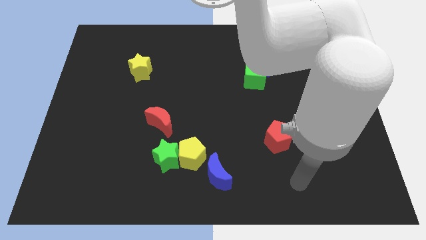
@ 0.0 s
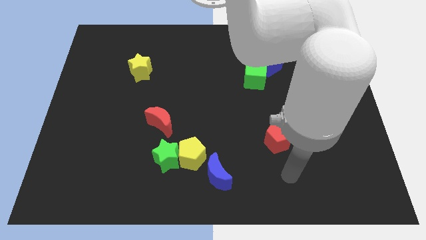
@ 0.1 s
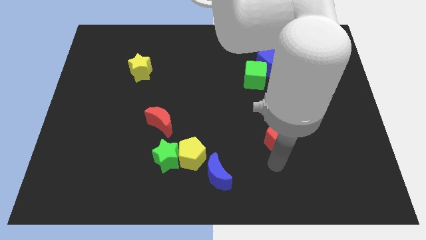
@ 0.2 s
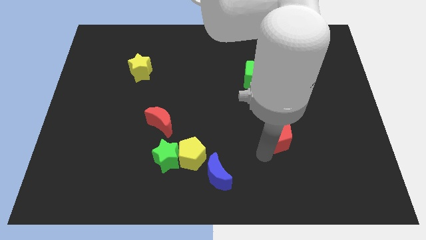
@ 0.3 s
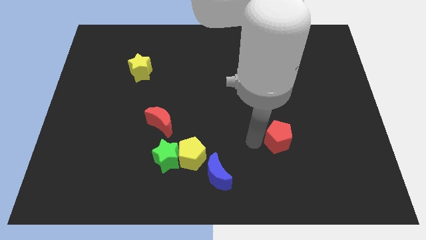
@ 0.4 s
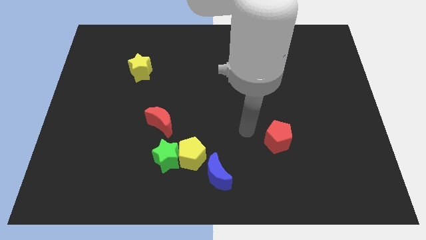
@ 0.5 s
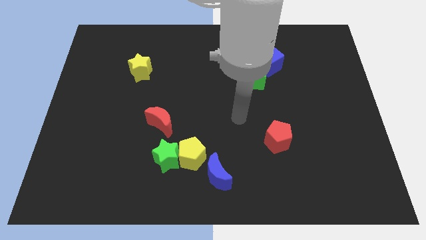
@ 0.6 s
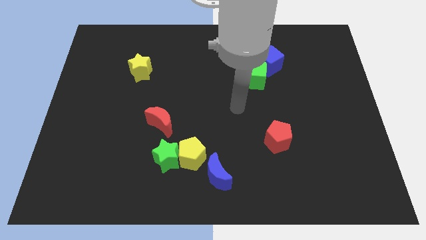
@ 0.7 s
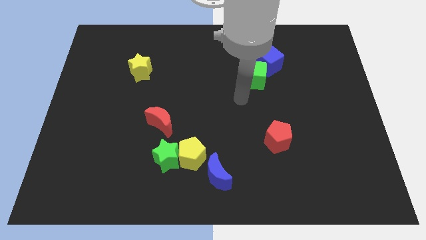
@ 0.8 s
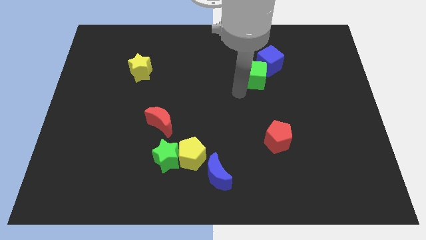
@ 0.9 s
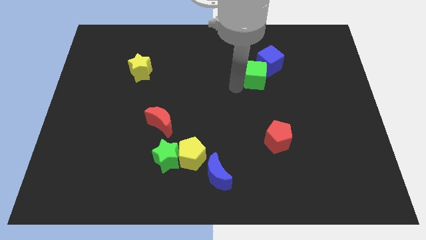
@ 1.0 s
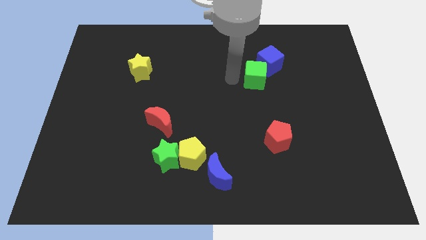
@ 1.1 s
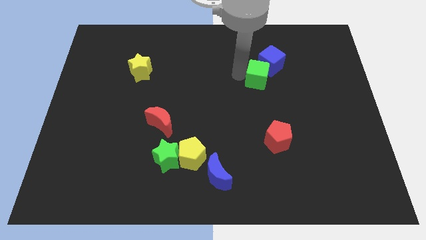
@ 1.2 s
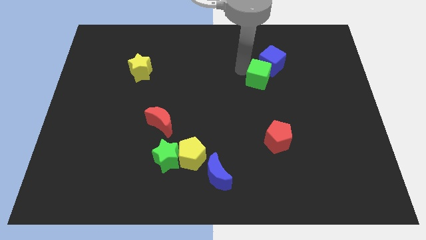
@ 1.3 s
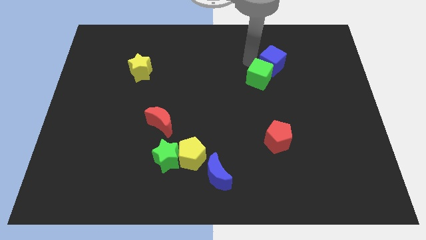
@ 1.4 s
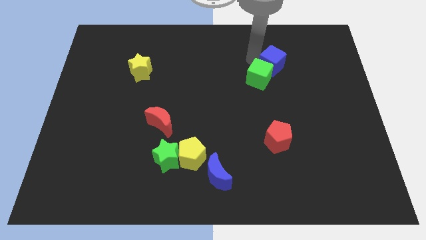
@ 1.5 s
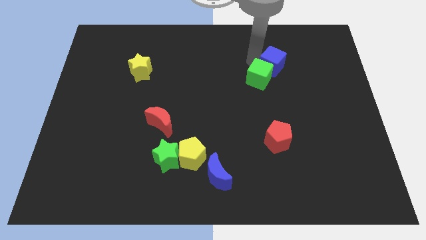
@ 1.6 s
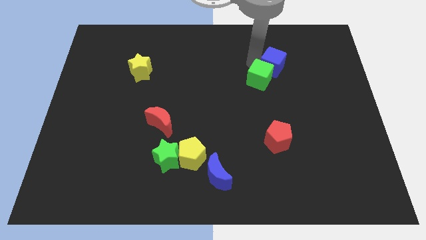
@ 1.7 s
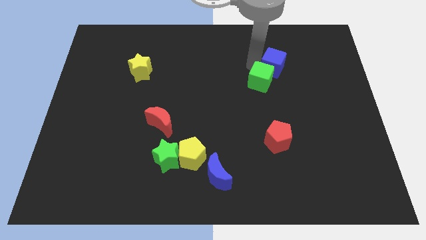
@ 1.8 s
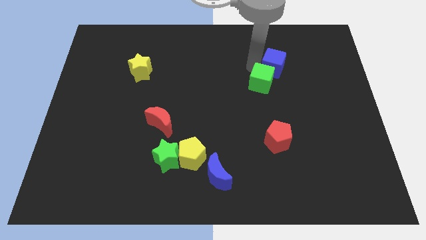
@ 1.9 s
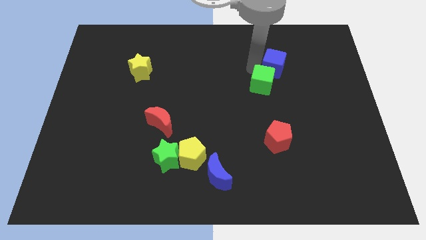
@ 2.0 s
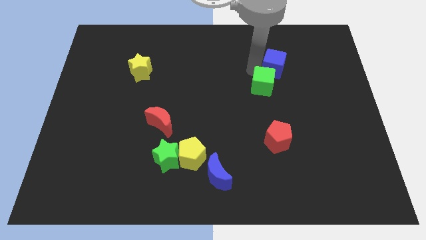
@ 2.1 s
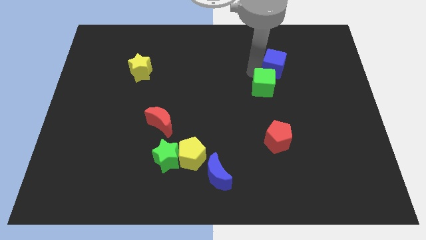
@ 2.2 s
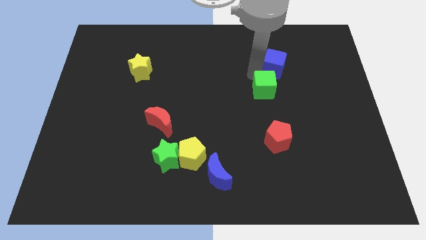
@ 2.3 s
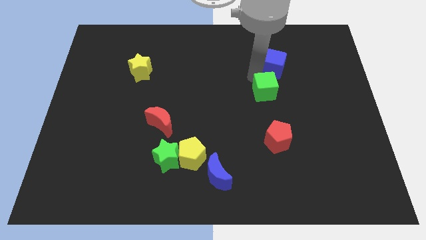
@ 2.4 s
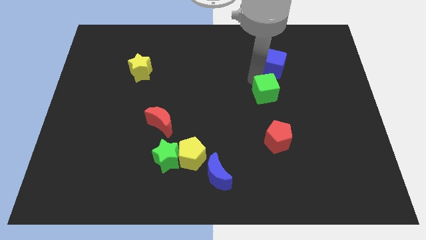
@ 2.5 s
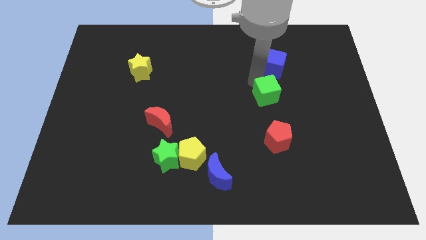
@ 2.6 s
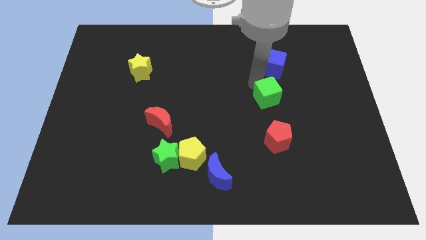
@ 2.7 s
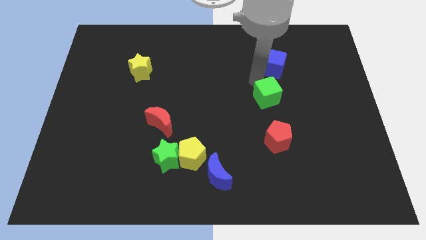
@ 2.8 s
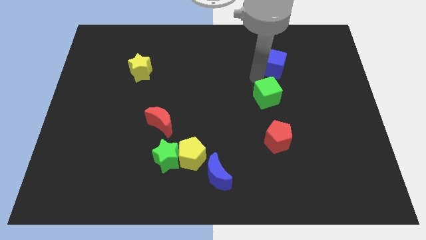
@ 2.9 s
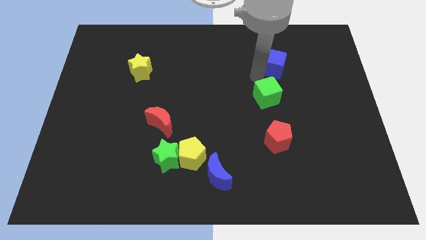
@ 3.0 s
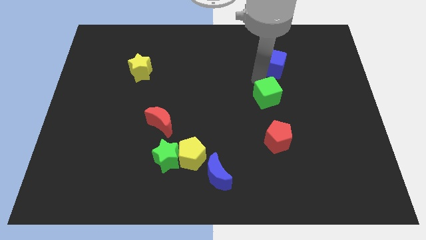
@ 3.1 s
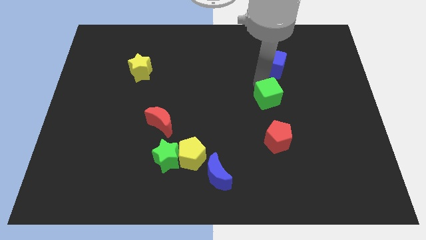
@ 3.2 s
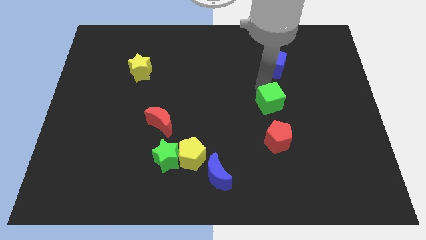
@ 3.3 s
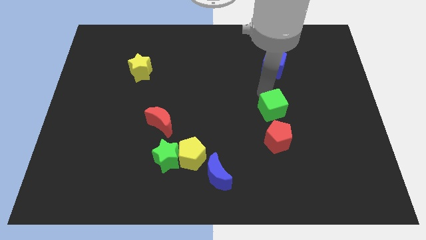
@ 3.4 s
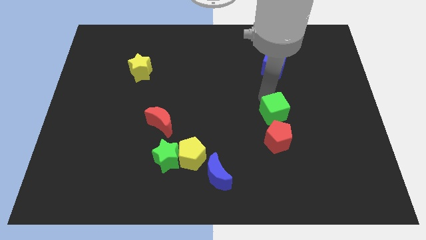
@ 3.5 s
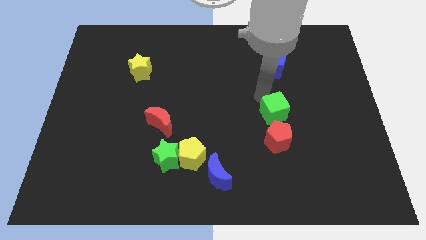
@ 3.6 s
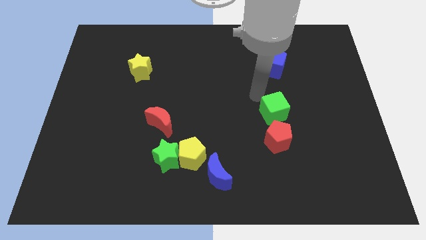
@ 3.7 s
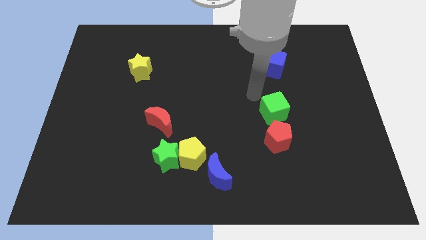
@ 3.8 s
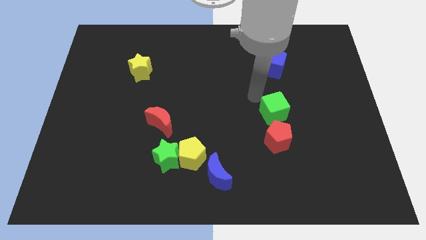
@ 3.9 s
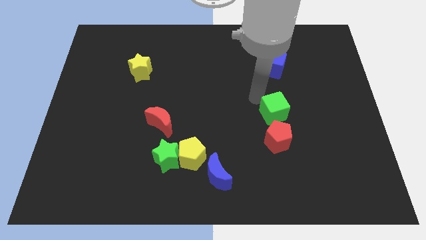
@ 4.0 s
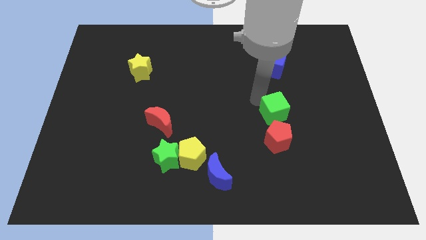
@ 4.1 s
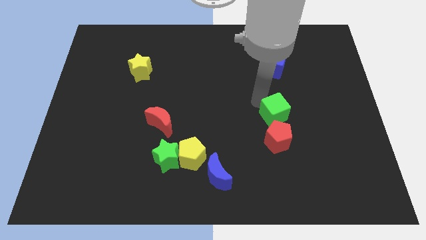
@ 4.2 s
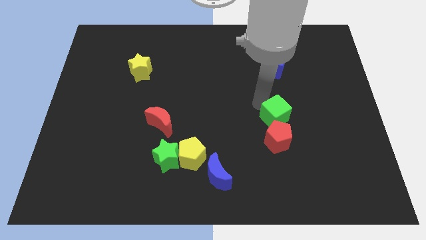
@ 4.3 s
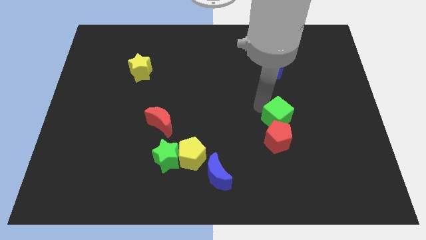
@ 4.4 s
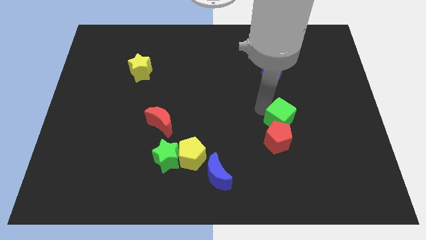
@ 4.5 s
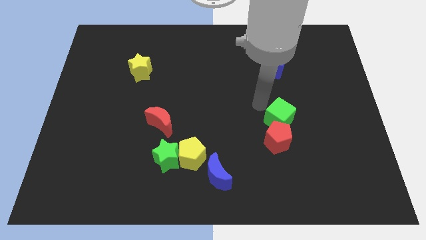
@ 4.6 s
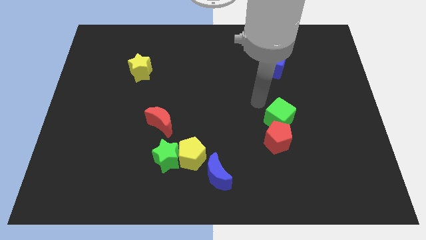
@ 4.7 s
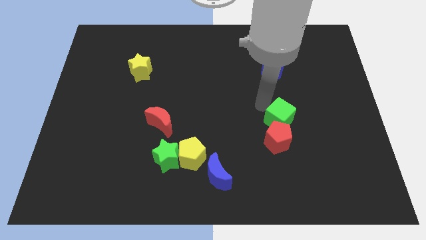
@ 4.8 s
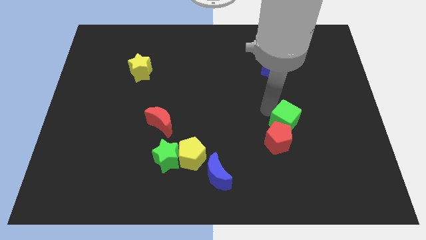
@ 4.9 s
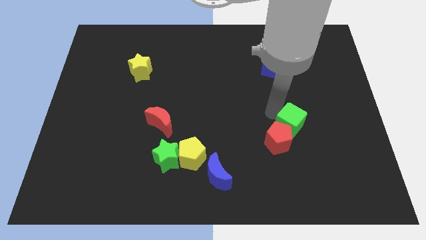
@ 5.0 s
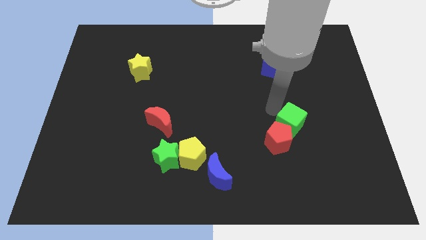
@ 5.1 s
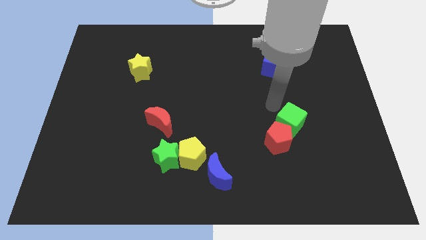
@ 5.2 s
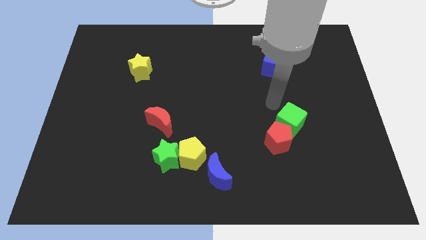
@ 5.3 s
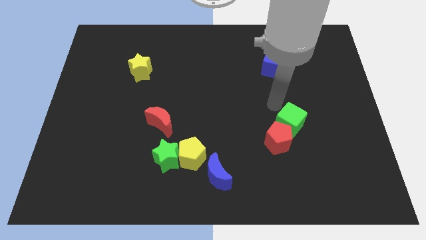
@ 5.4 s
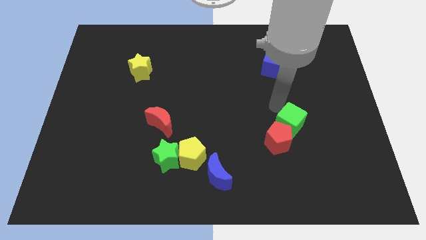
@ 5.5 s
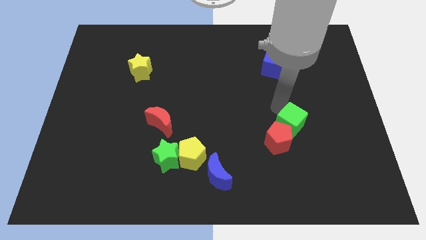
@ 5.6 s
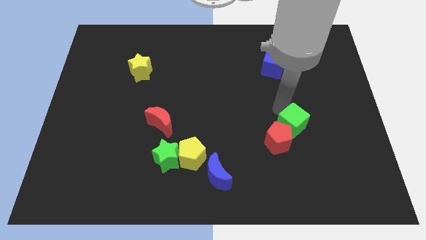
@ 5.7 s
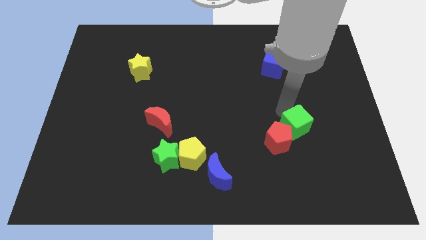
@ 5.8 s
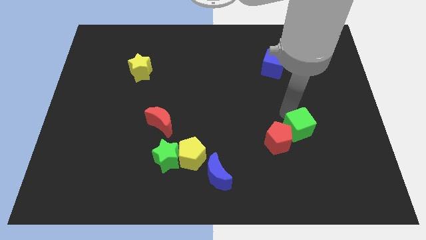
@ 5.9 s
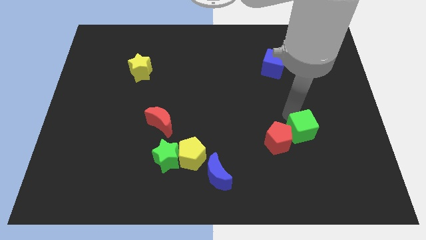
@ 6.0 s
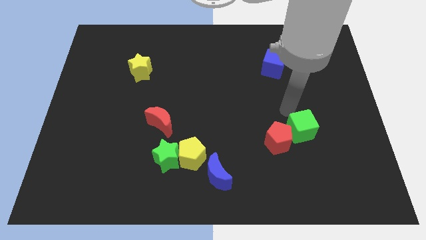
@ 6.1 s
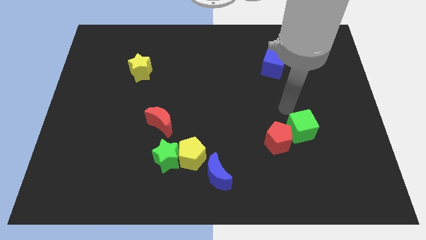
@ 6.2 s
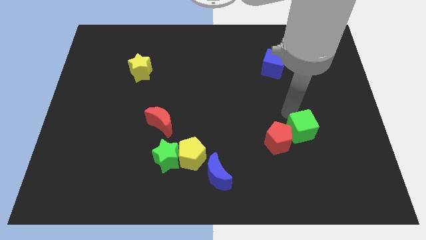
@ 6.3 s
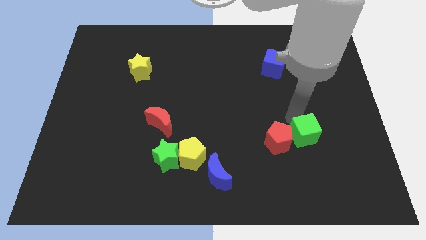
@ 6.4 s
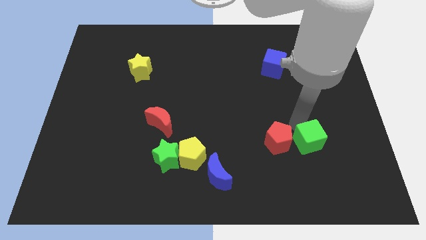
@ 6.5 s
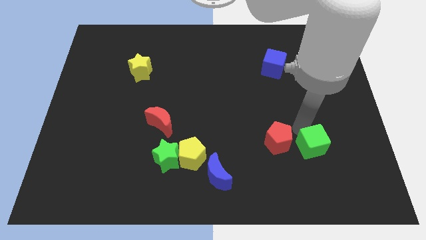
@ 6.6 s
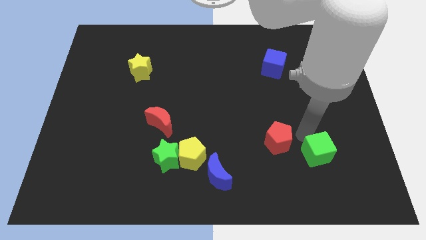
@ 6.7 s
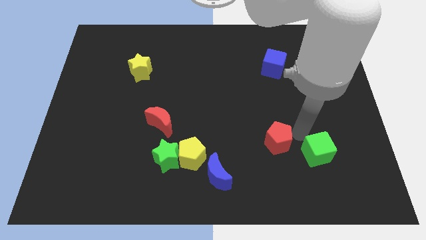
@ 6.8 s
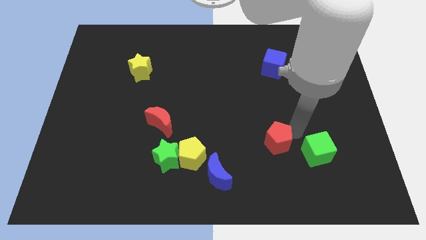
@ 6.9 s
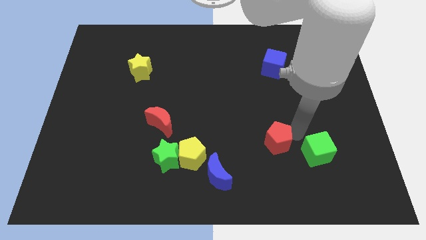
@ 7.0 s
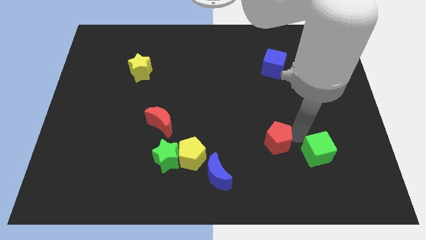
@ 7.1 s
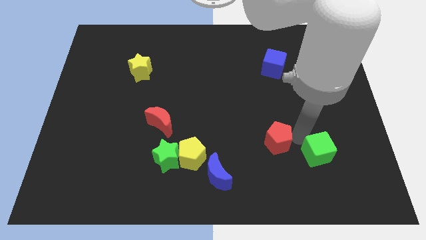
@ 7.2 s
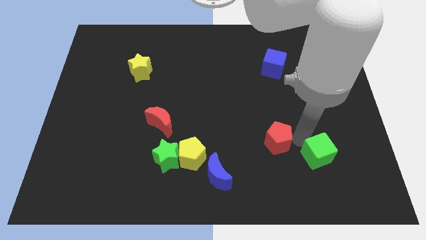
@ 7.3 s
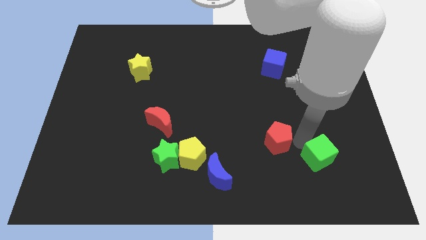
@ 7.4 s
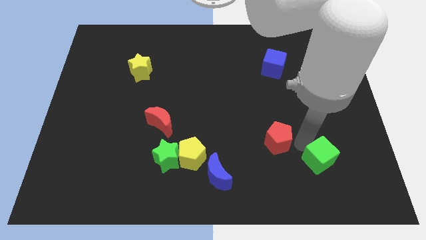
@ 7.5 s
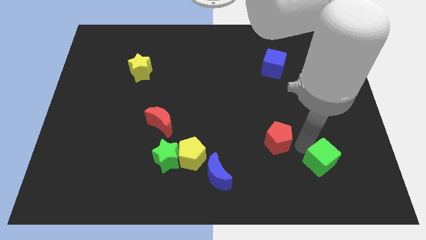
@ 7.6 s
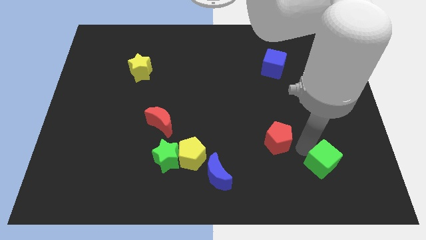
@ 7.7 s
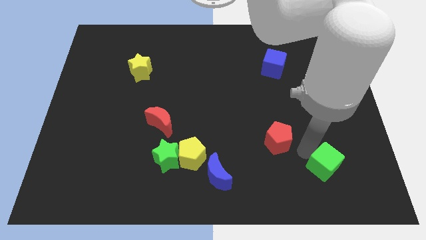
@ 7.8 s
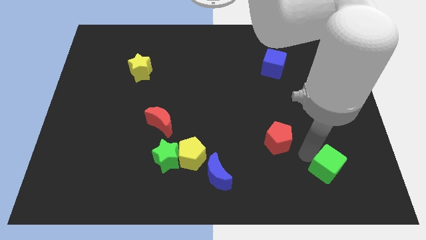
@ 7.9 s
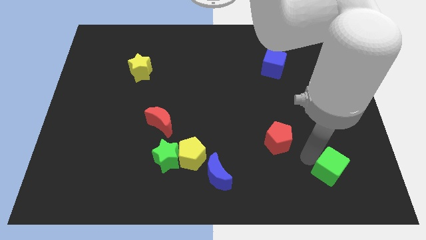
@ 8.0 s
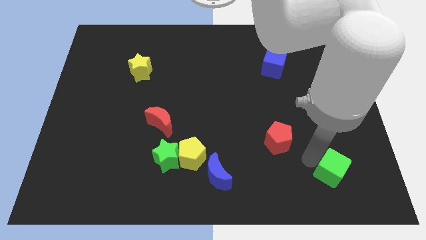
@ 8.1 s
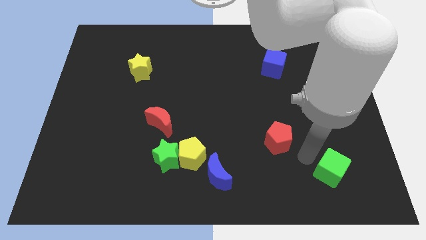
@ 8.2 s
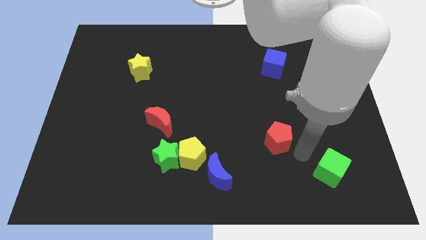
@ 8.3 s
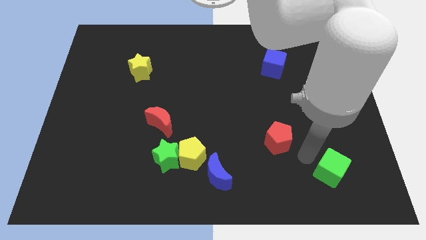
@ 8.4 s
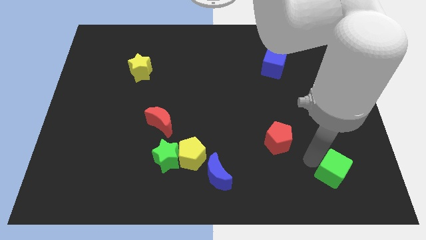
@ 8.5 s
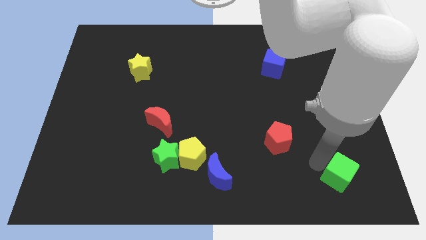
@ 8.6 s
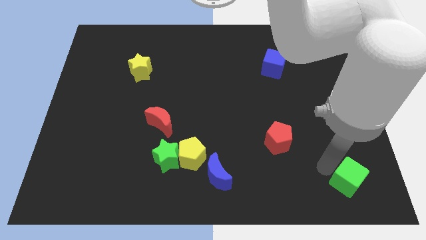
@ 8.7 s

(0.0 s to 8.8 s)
push the green cube to the bottom right of the board
